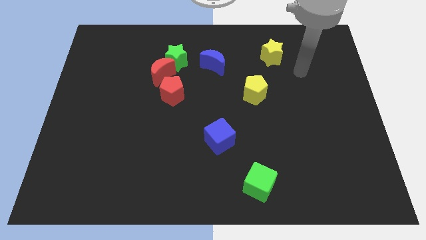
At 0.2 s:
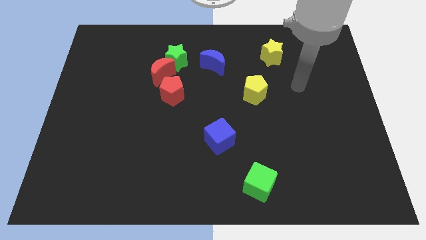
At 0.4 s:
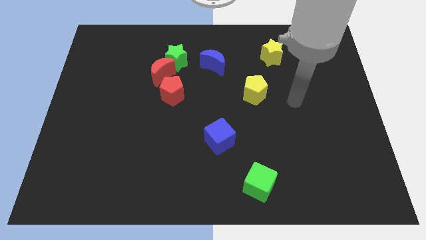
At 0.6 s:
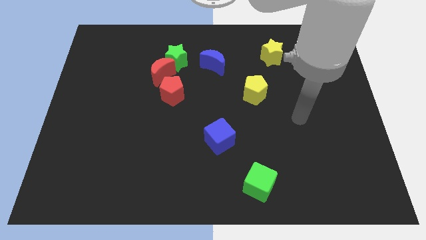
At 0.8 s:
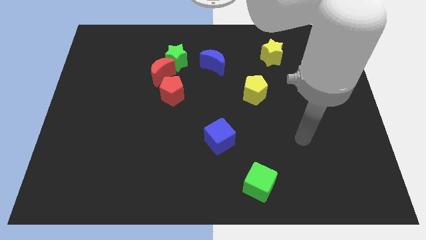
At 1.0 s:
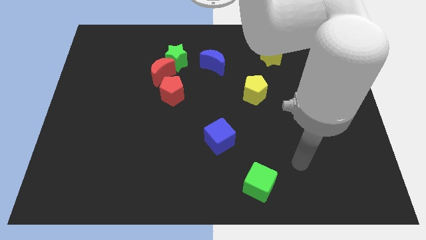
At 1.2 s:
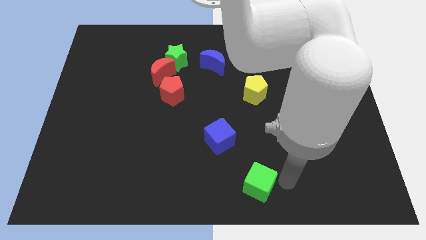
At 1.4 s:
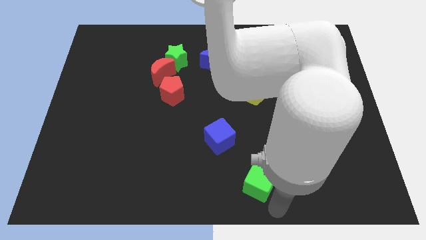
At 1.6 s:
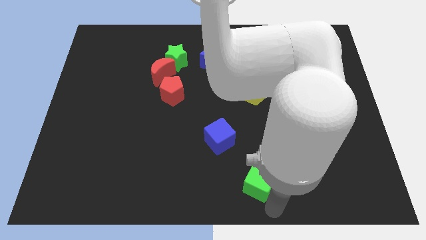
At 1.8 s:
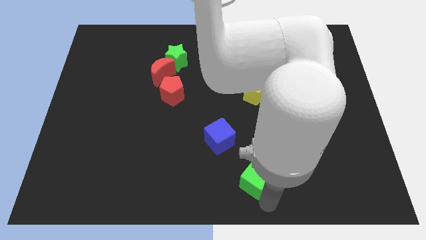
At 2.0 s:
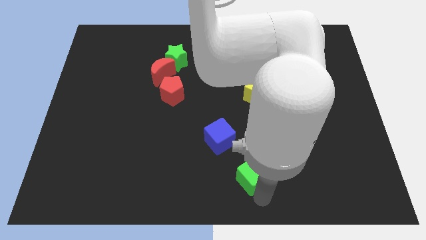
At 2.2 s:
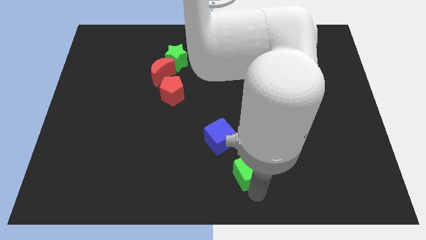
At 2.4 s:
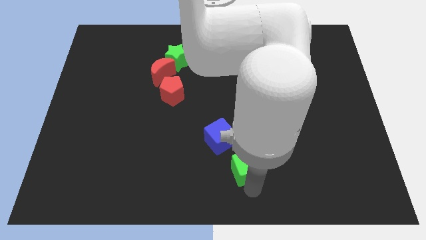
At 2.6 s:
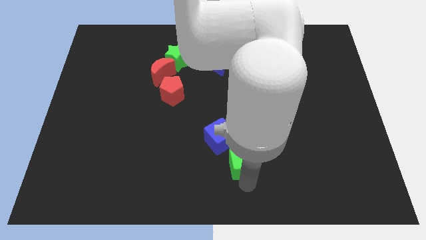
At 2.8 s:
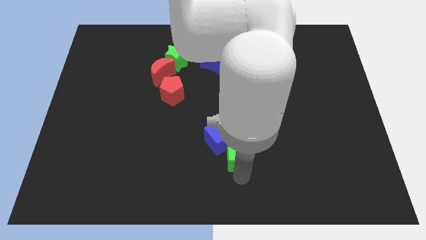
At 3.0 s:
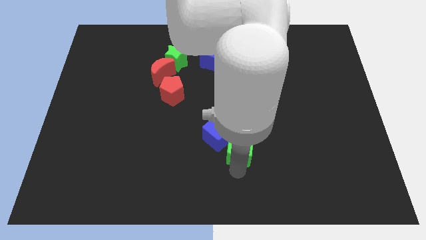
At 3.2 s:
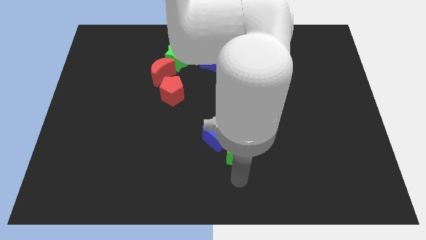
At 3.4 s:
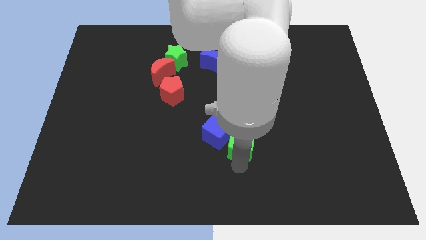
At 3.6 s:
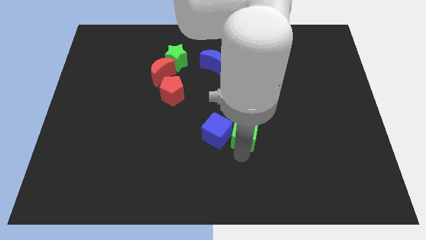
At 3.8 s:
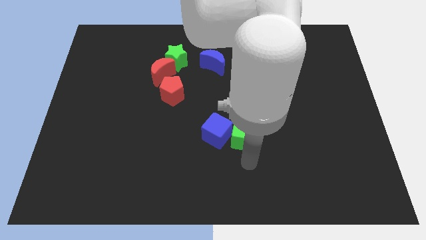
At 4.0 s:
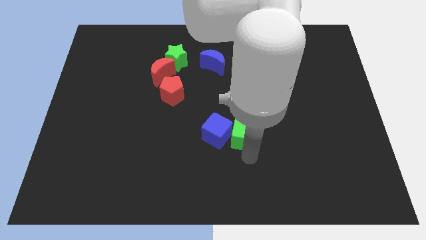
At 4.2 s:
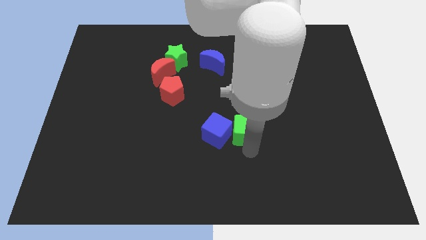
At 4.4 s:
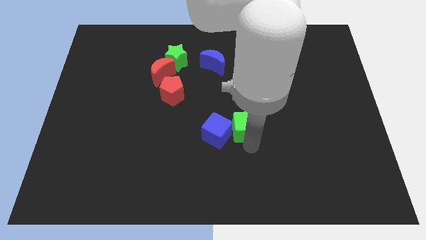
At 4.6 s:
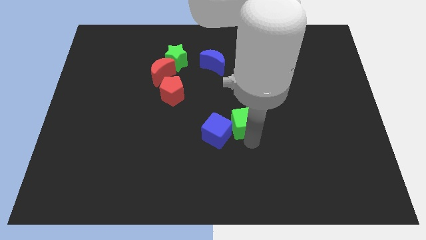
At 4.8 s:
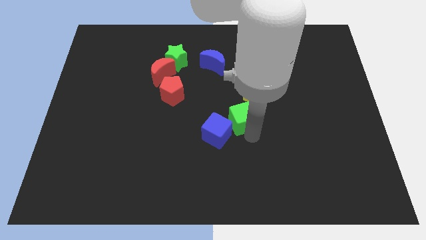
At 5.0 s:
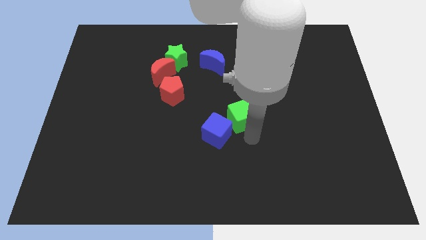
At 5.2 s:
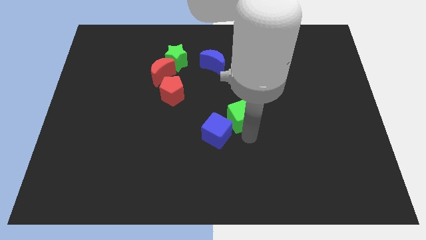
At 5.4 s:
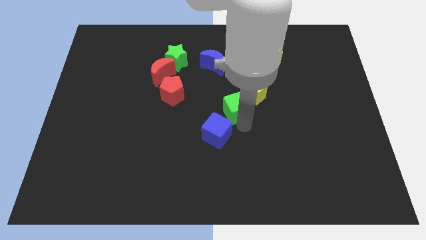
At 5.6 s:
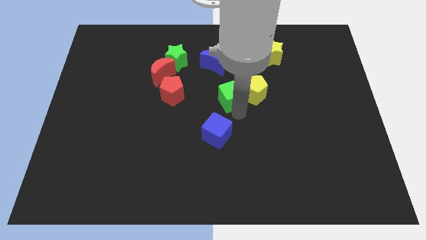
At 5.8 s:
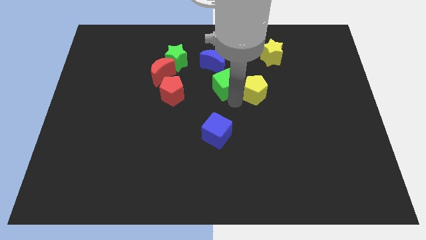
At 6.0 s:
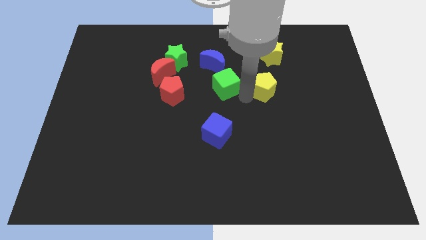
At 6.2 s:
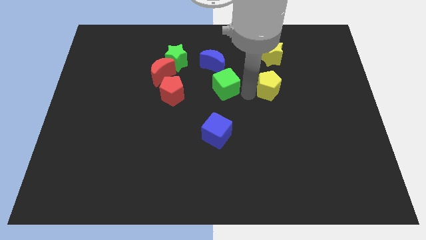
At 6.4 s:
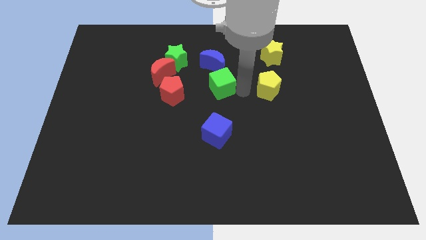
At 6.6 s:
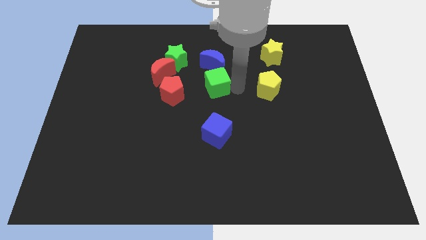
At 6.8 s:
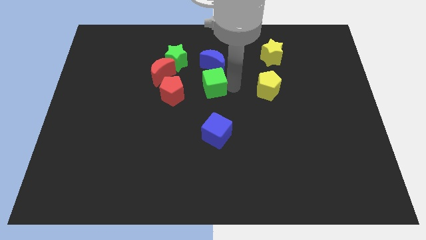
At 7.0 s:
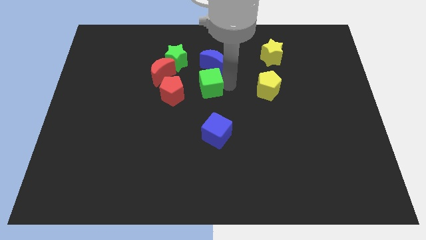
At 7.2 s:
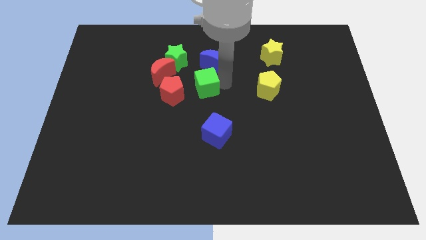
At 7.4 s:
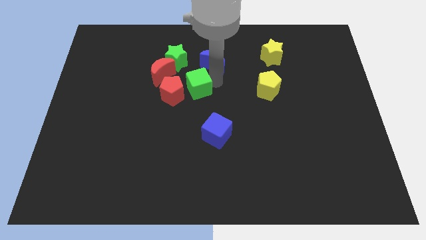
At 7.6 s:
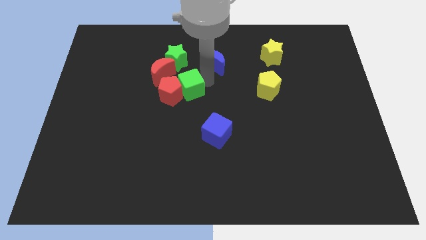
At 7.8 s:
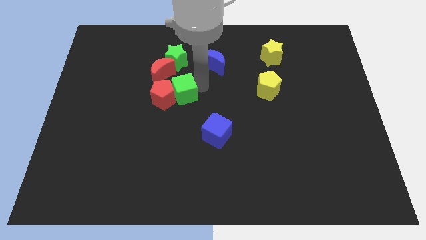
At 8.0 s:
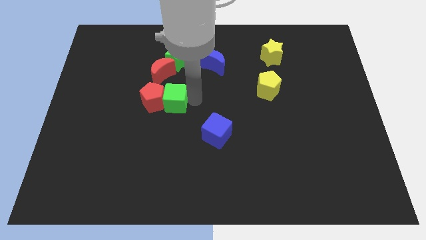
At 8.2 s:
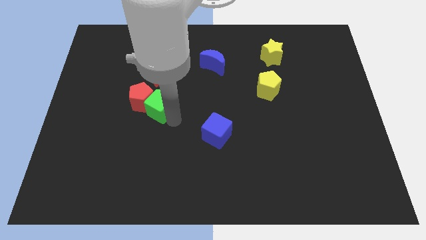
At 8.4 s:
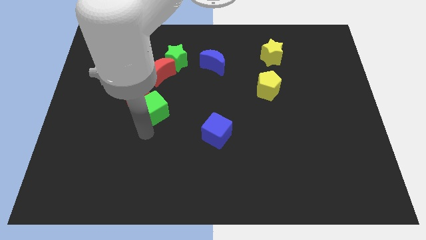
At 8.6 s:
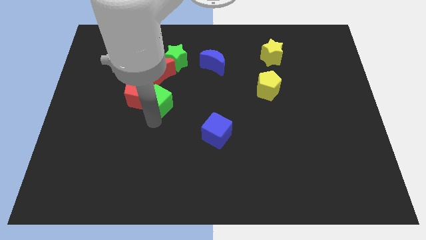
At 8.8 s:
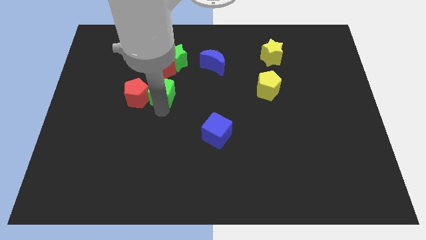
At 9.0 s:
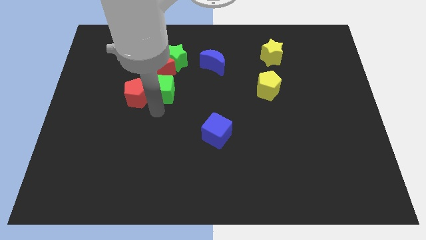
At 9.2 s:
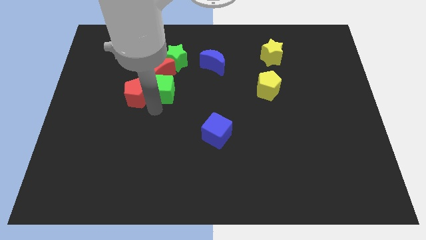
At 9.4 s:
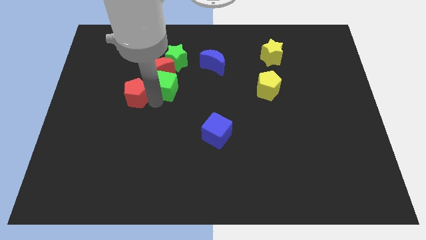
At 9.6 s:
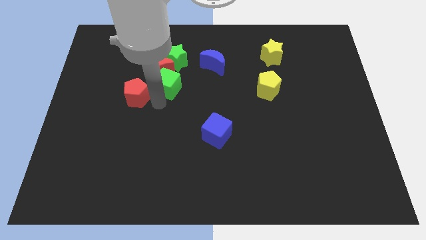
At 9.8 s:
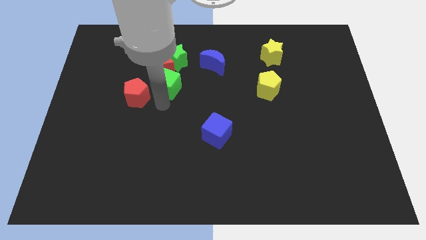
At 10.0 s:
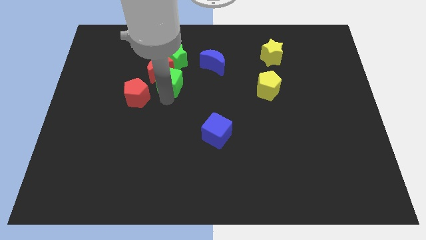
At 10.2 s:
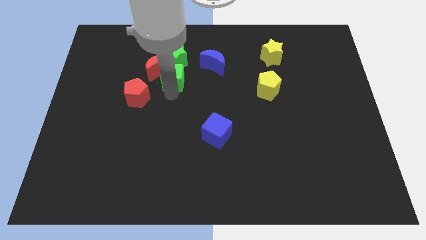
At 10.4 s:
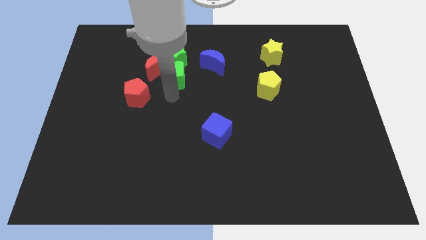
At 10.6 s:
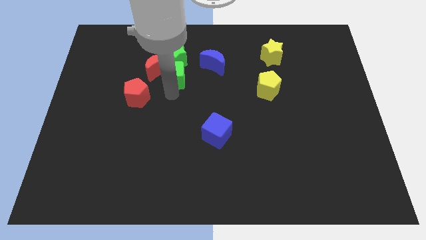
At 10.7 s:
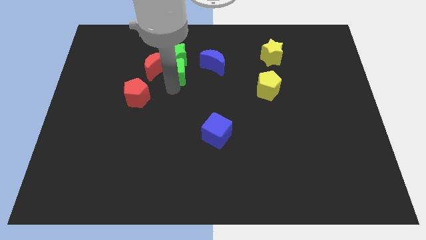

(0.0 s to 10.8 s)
move the green cube next to the green star

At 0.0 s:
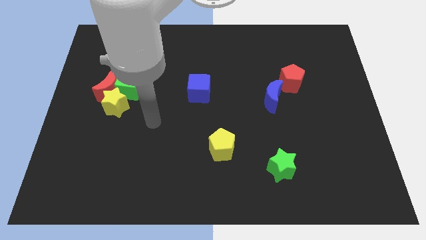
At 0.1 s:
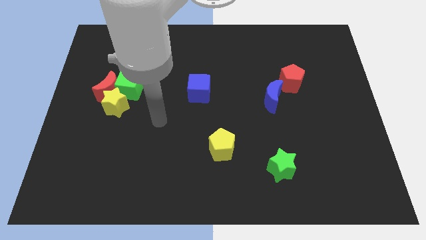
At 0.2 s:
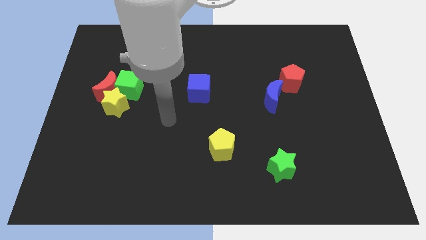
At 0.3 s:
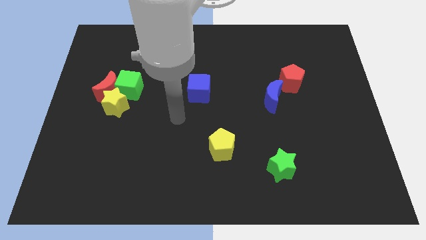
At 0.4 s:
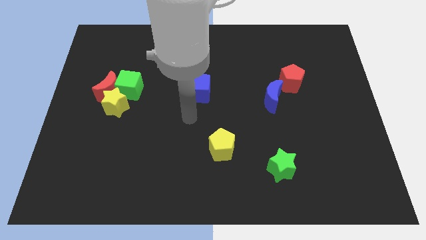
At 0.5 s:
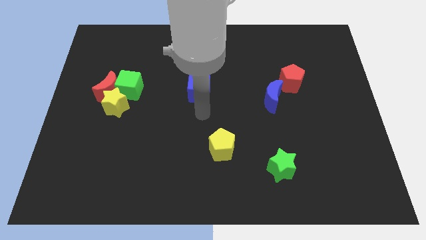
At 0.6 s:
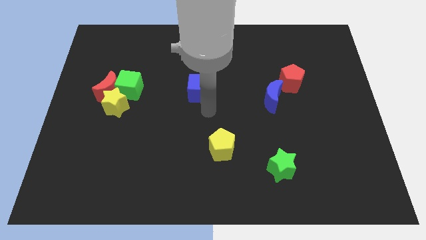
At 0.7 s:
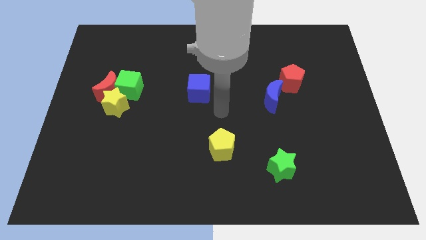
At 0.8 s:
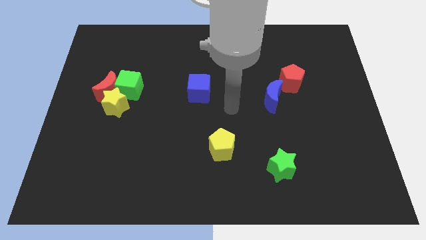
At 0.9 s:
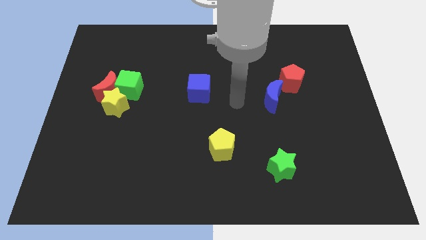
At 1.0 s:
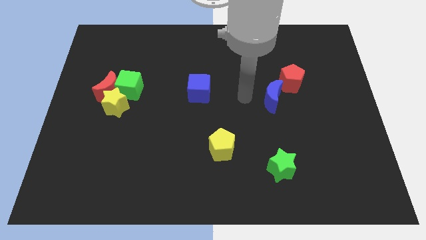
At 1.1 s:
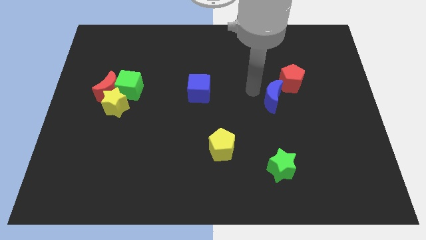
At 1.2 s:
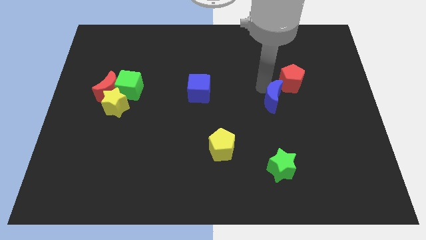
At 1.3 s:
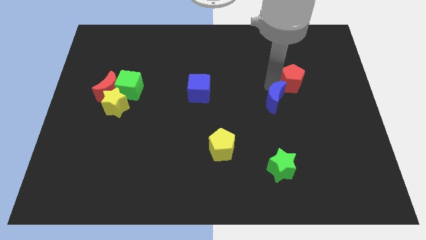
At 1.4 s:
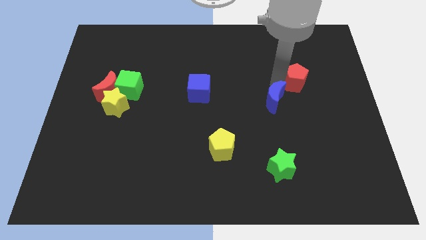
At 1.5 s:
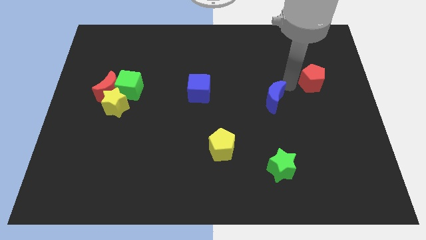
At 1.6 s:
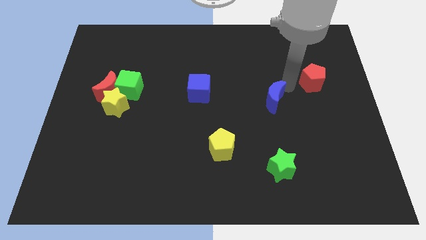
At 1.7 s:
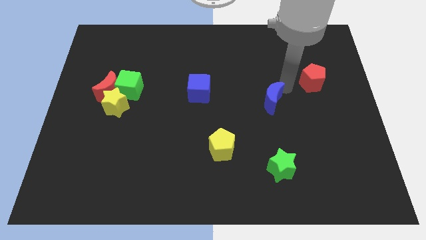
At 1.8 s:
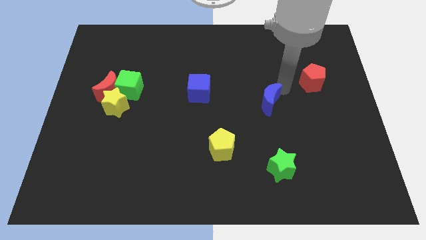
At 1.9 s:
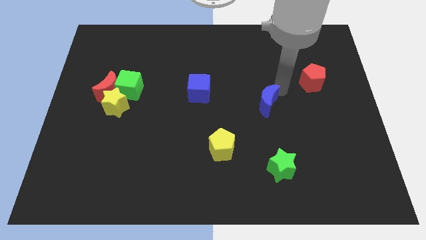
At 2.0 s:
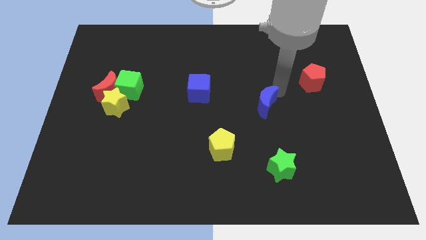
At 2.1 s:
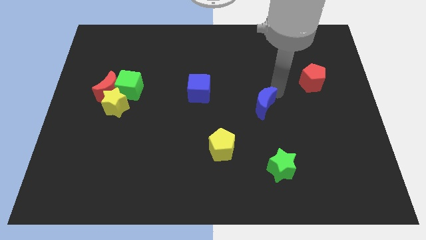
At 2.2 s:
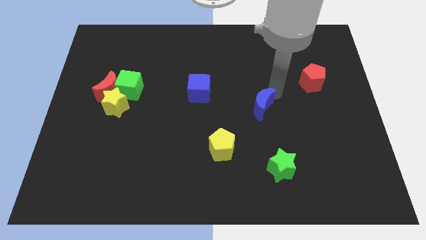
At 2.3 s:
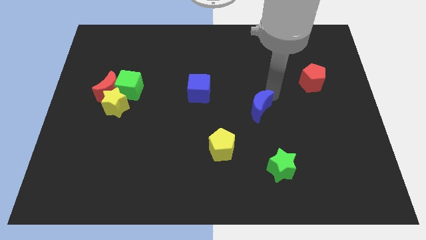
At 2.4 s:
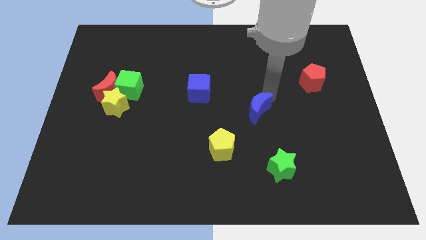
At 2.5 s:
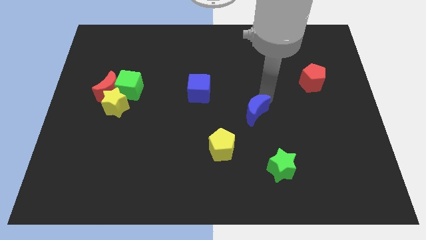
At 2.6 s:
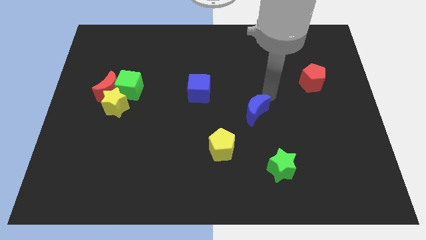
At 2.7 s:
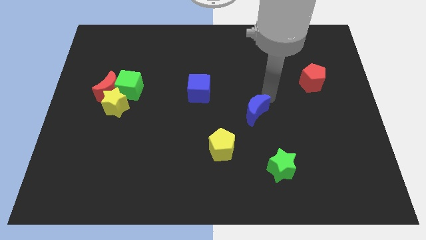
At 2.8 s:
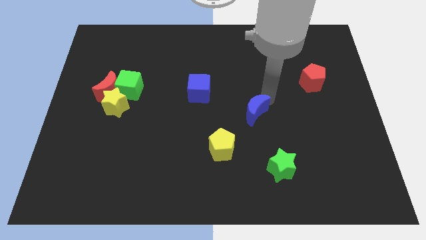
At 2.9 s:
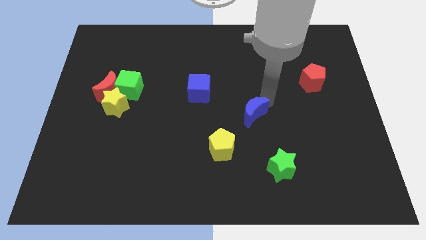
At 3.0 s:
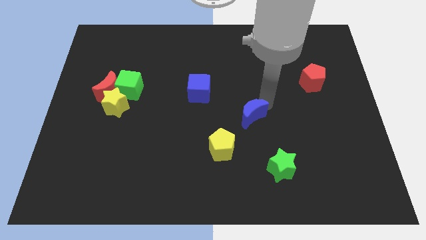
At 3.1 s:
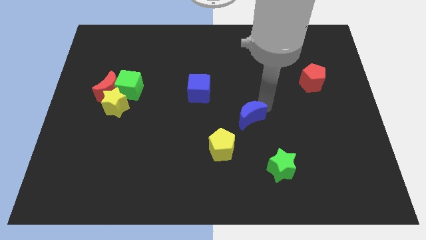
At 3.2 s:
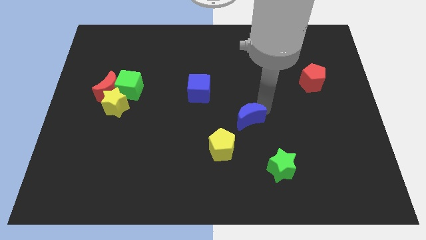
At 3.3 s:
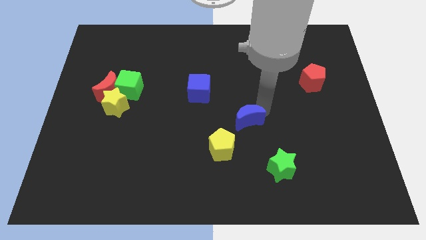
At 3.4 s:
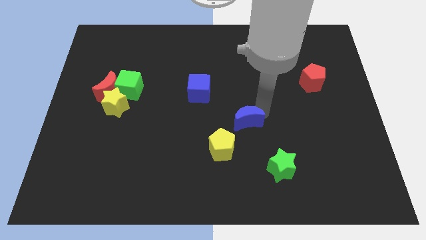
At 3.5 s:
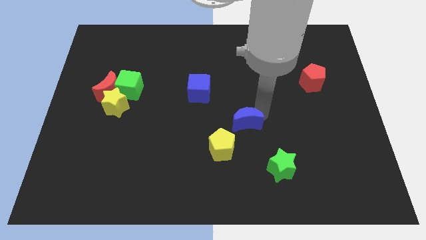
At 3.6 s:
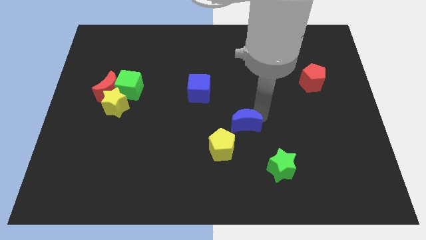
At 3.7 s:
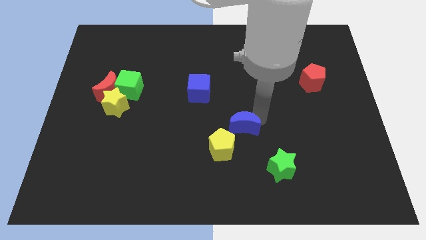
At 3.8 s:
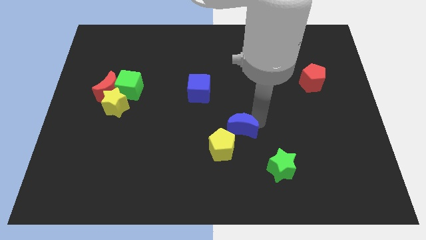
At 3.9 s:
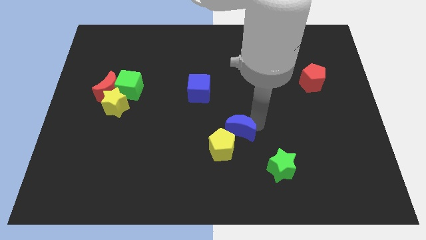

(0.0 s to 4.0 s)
slide the blue moon next to the yellow pentagon
